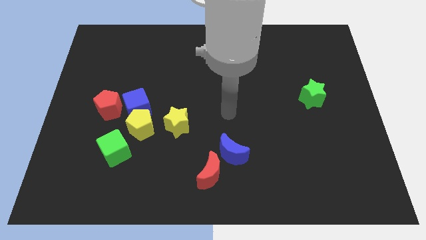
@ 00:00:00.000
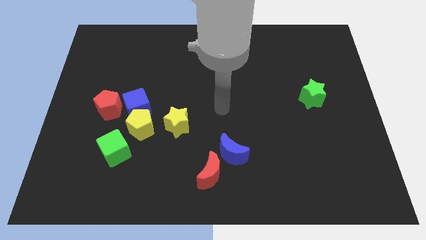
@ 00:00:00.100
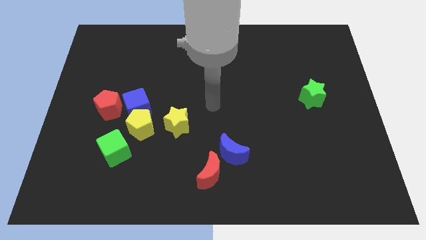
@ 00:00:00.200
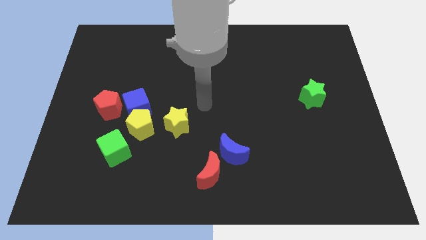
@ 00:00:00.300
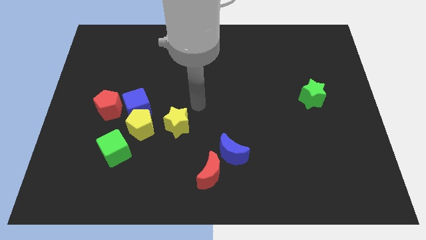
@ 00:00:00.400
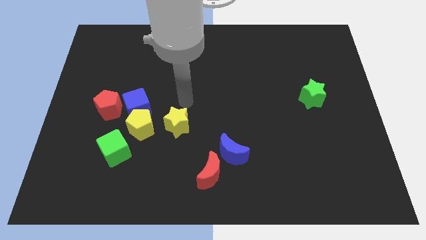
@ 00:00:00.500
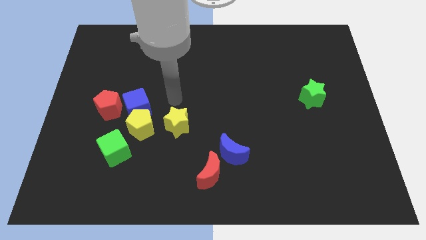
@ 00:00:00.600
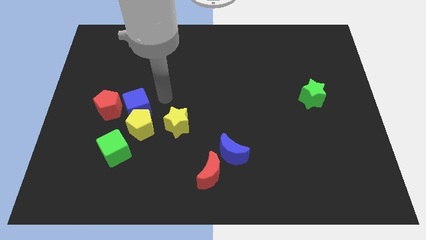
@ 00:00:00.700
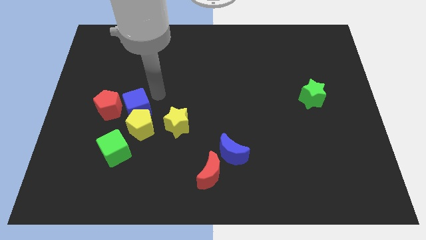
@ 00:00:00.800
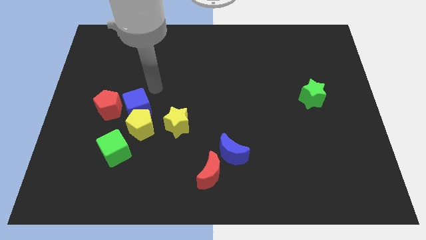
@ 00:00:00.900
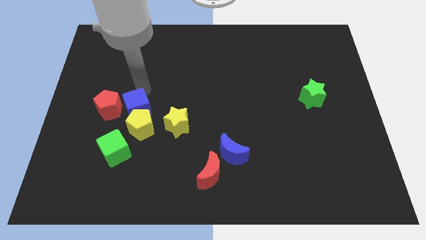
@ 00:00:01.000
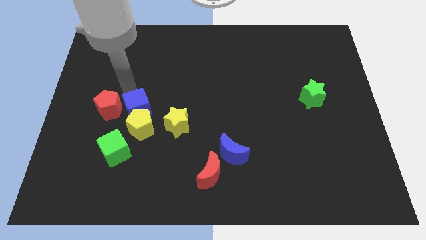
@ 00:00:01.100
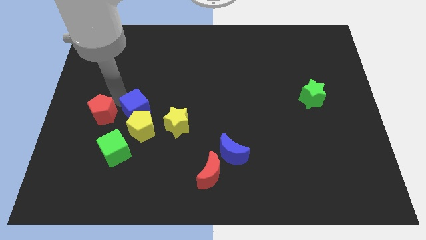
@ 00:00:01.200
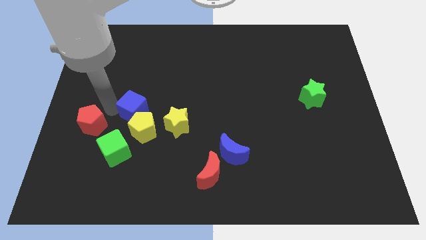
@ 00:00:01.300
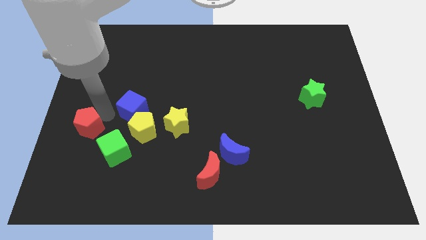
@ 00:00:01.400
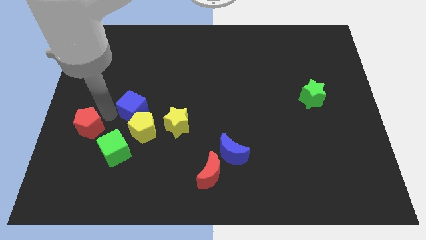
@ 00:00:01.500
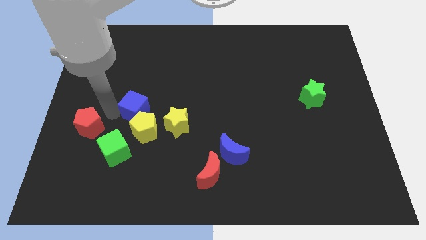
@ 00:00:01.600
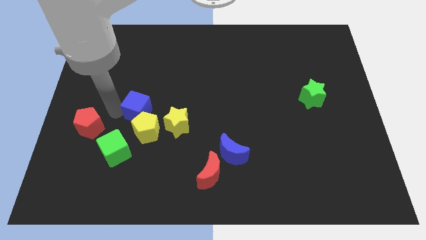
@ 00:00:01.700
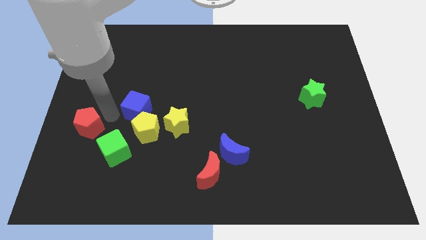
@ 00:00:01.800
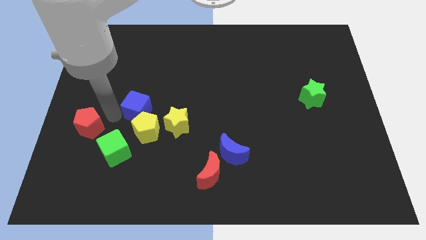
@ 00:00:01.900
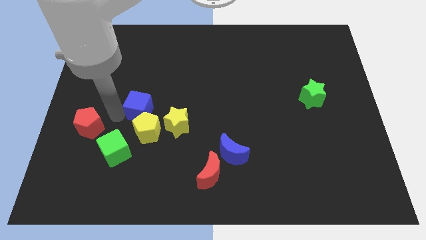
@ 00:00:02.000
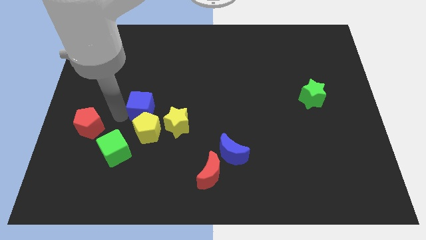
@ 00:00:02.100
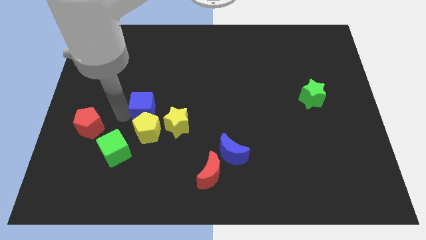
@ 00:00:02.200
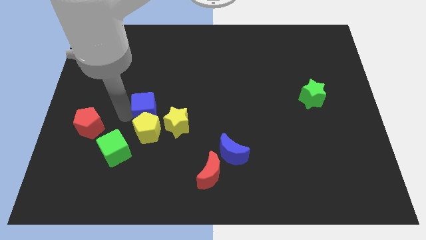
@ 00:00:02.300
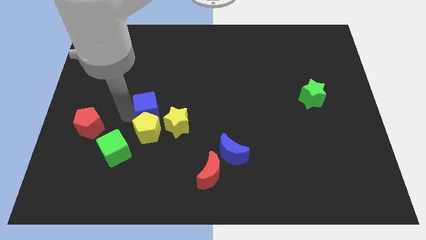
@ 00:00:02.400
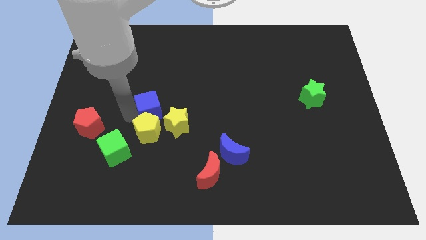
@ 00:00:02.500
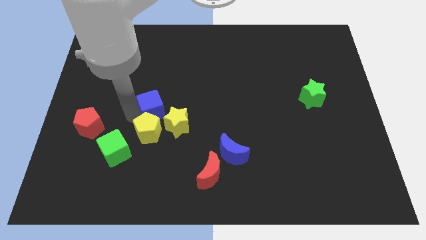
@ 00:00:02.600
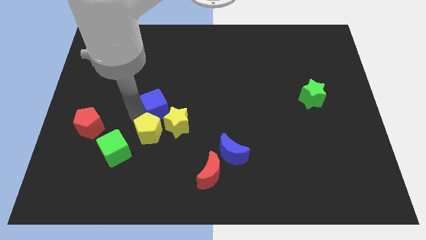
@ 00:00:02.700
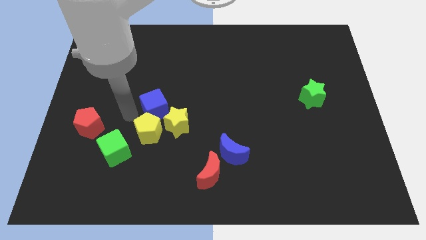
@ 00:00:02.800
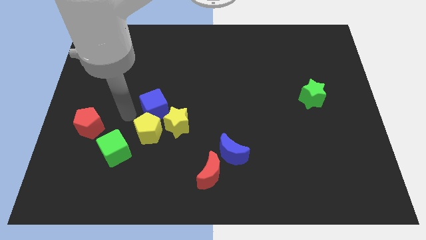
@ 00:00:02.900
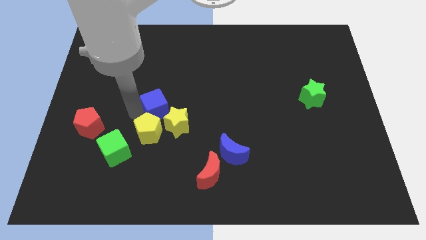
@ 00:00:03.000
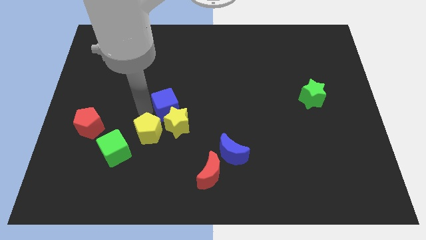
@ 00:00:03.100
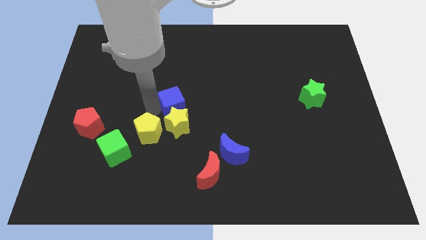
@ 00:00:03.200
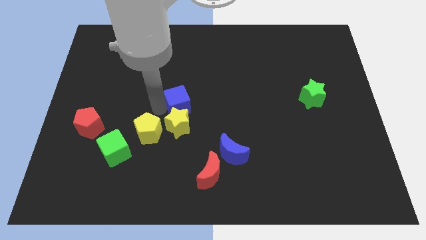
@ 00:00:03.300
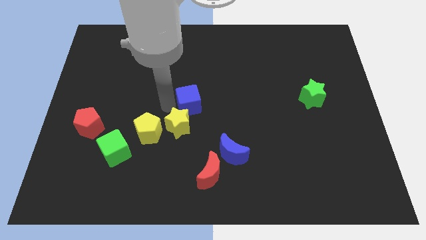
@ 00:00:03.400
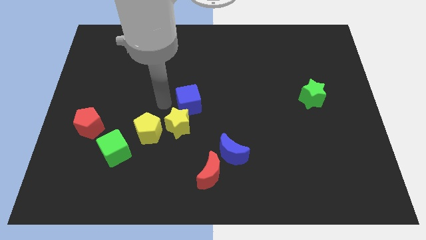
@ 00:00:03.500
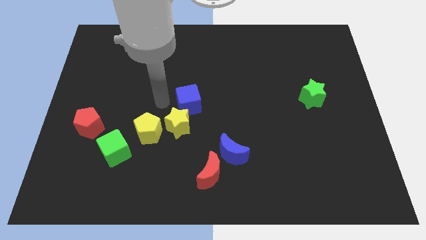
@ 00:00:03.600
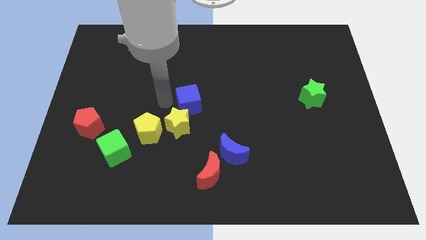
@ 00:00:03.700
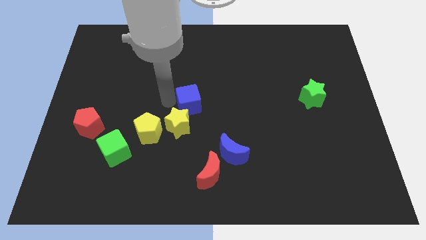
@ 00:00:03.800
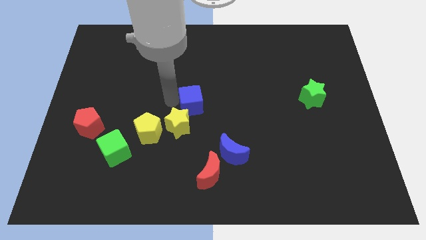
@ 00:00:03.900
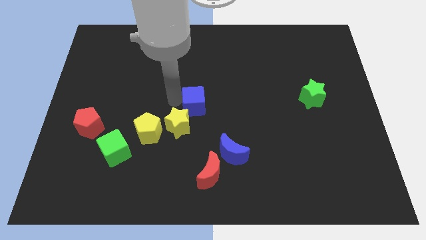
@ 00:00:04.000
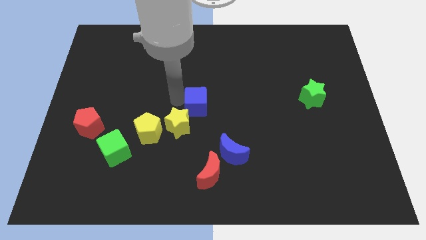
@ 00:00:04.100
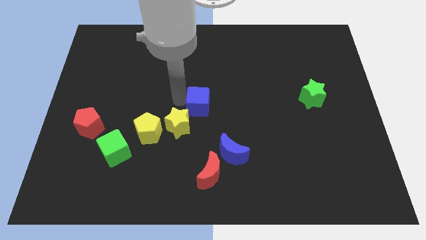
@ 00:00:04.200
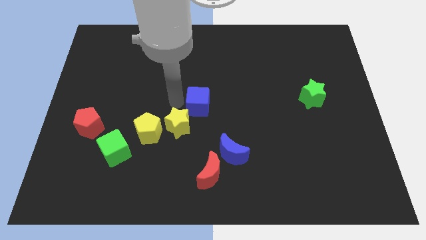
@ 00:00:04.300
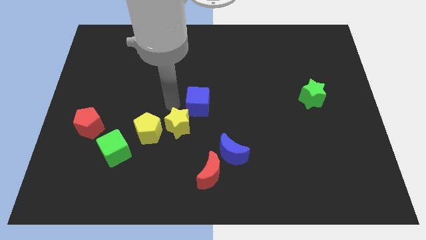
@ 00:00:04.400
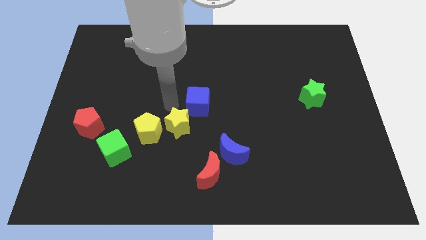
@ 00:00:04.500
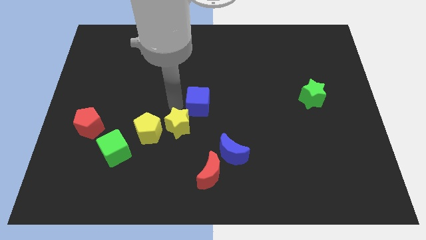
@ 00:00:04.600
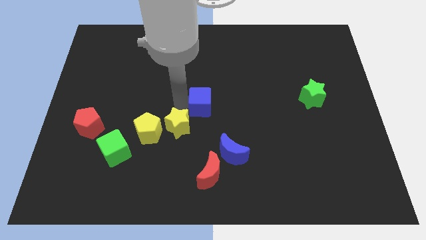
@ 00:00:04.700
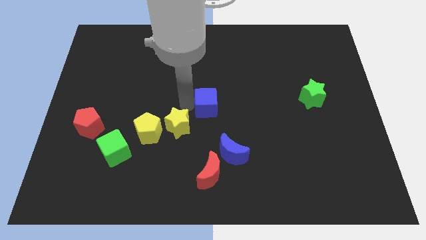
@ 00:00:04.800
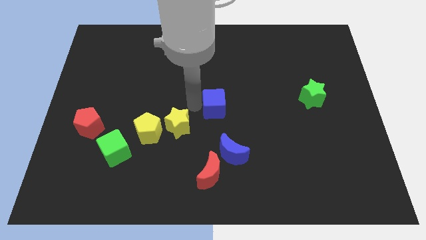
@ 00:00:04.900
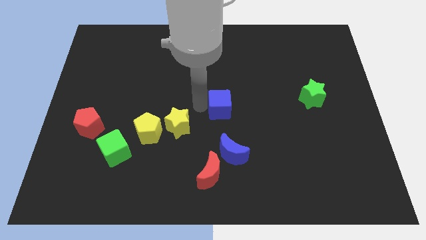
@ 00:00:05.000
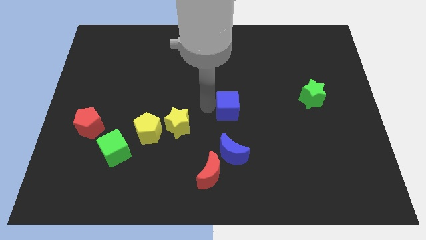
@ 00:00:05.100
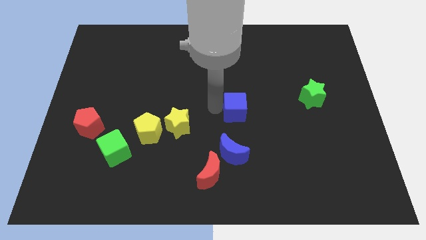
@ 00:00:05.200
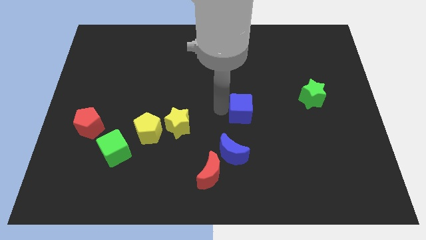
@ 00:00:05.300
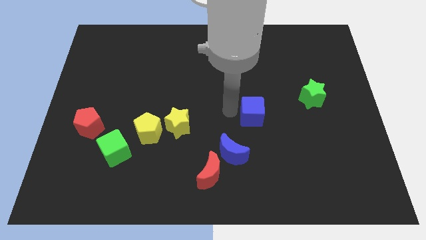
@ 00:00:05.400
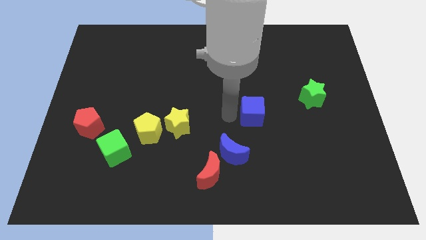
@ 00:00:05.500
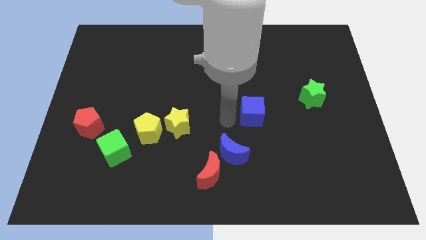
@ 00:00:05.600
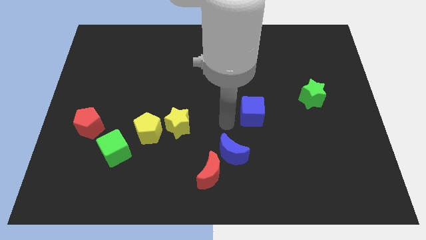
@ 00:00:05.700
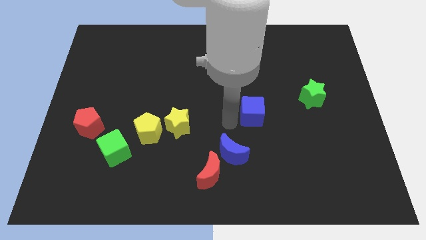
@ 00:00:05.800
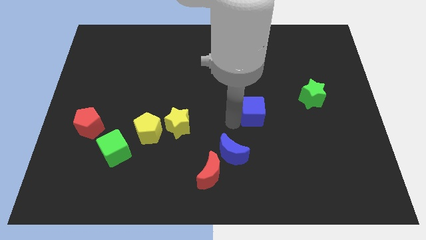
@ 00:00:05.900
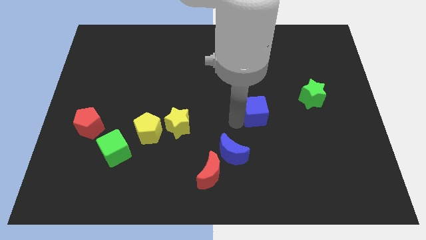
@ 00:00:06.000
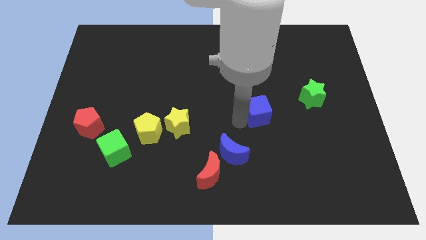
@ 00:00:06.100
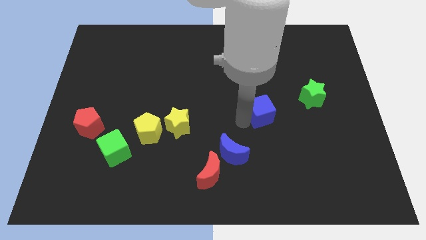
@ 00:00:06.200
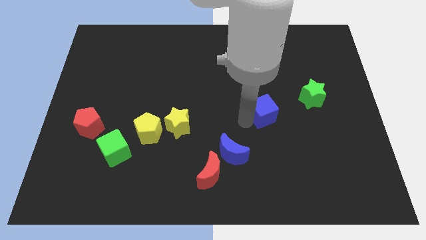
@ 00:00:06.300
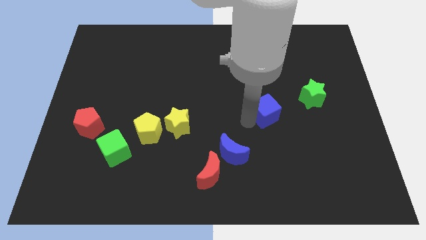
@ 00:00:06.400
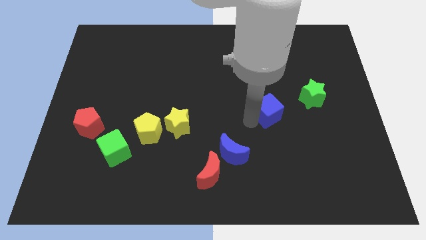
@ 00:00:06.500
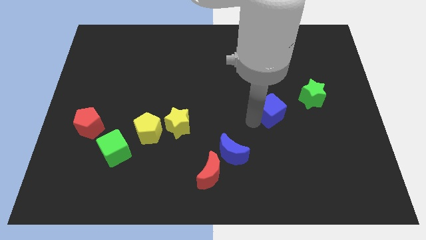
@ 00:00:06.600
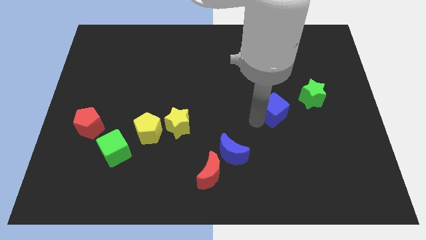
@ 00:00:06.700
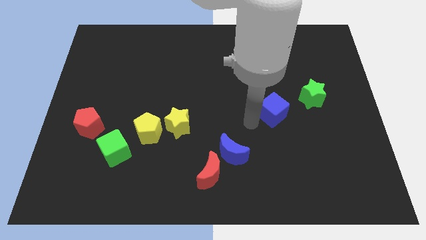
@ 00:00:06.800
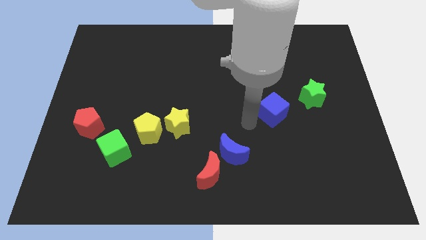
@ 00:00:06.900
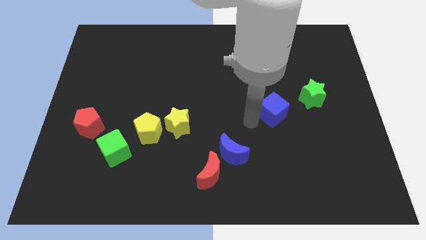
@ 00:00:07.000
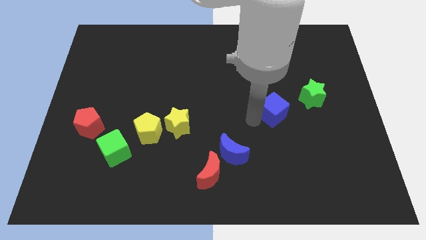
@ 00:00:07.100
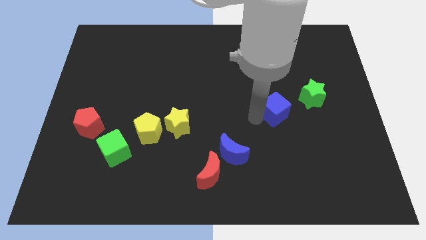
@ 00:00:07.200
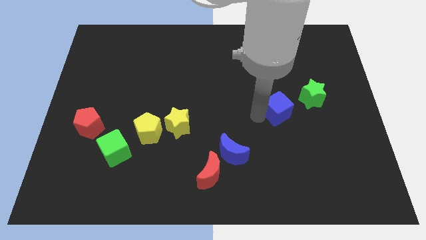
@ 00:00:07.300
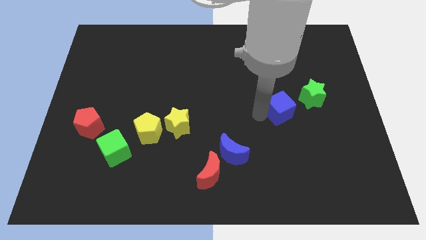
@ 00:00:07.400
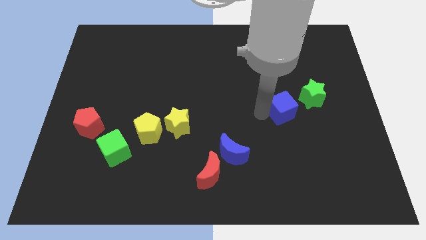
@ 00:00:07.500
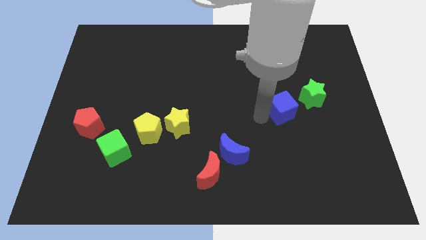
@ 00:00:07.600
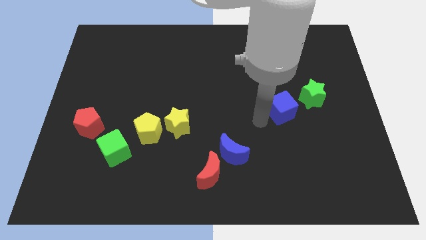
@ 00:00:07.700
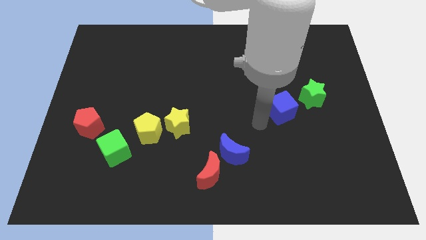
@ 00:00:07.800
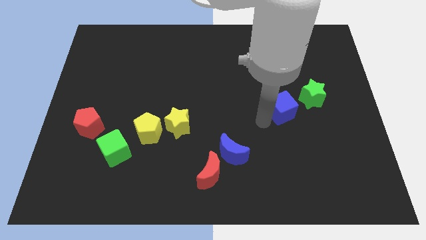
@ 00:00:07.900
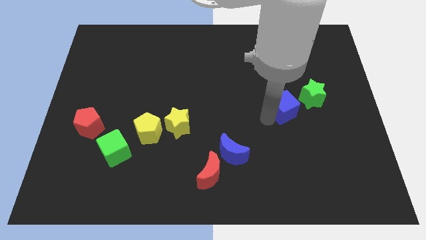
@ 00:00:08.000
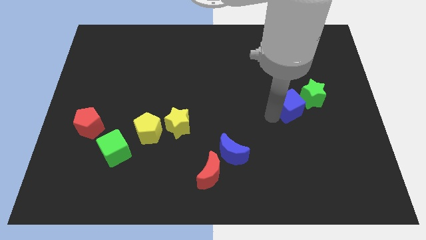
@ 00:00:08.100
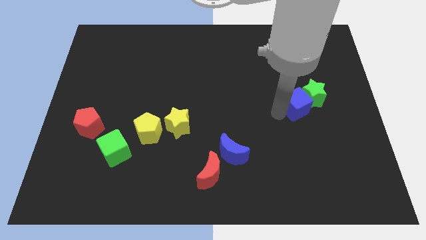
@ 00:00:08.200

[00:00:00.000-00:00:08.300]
push the blue cube next to the green star
